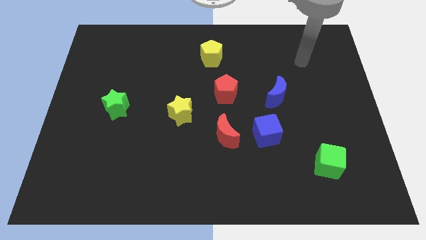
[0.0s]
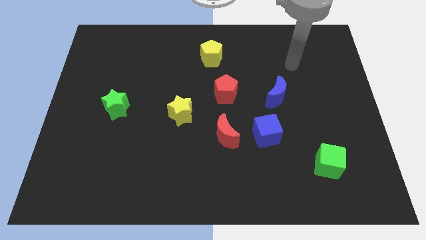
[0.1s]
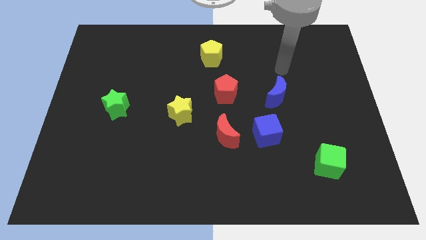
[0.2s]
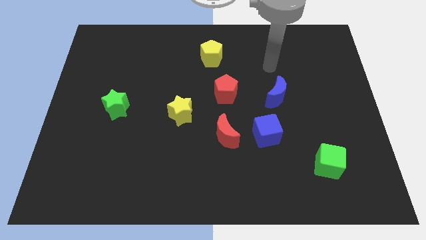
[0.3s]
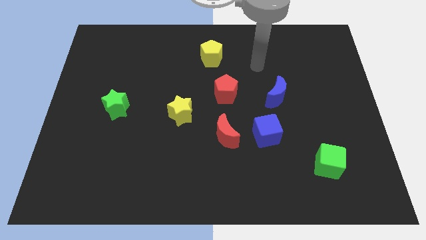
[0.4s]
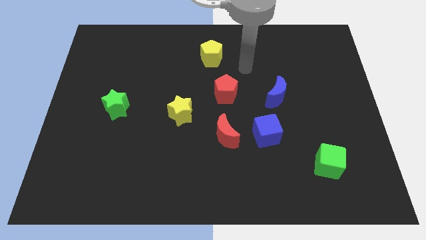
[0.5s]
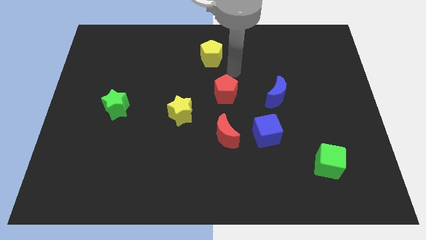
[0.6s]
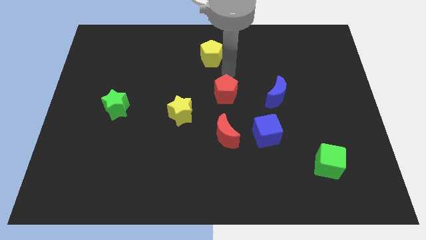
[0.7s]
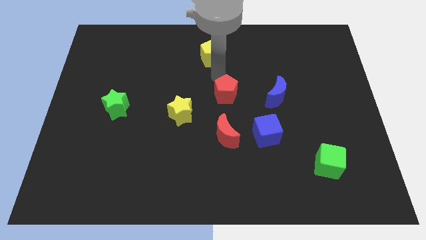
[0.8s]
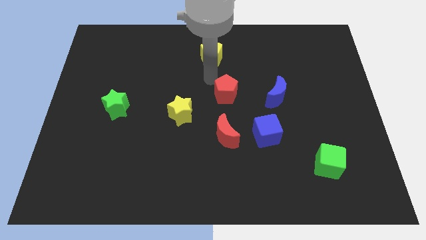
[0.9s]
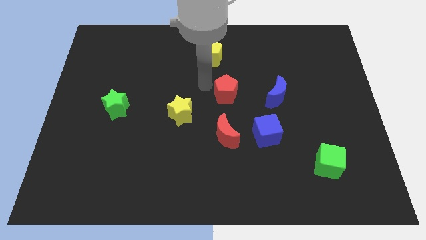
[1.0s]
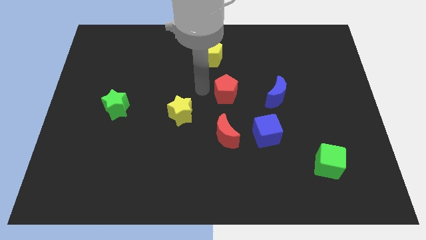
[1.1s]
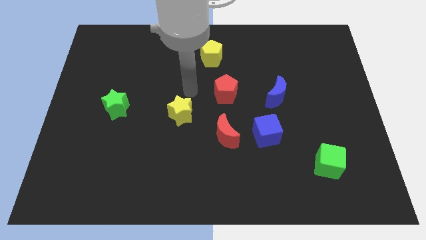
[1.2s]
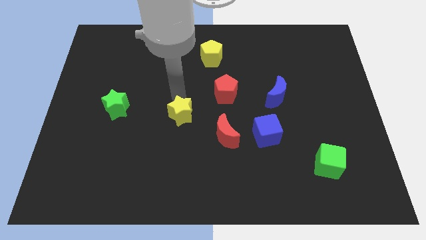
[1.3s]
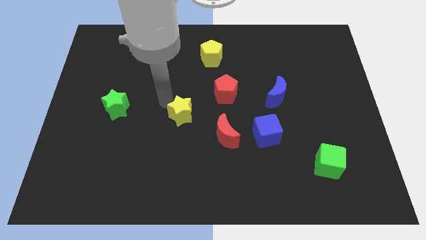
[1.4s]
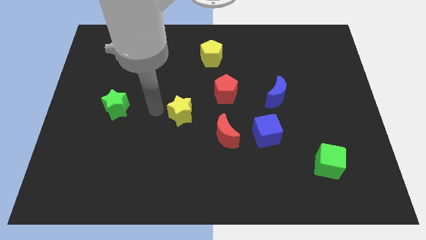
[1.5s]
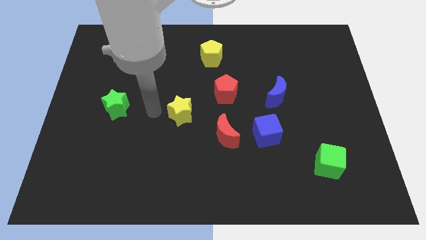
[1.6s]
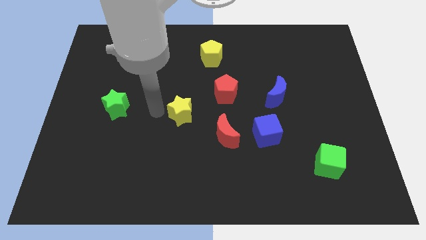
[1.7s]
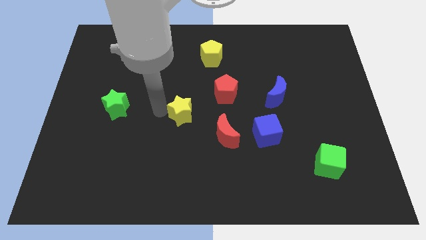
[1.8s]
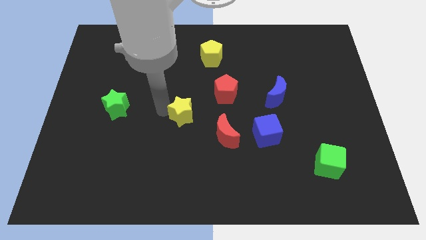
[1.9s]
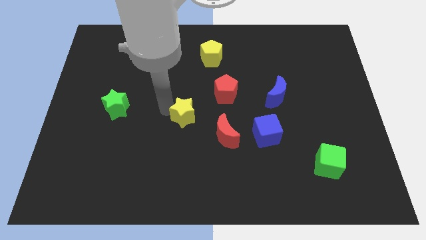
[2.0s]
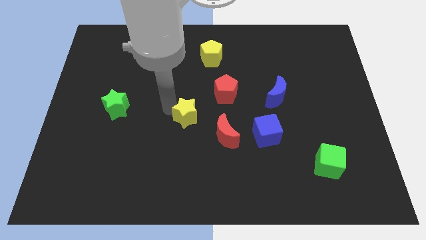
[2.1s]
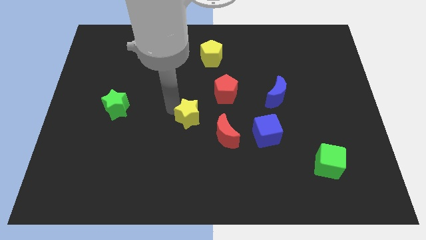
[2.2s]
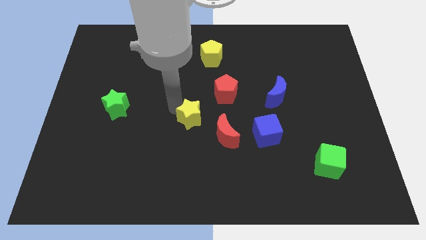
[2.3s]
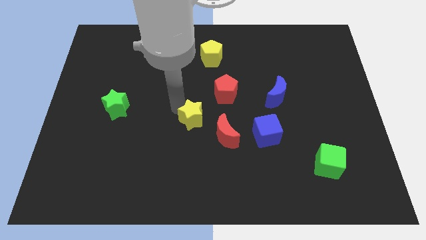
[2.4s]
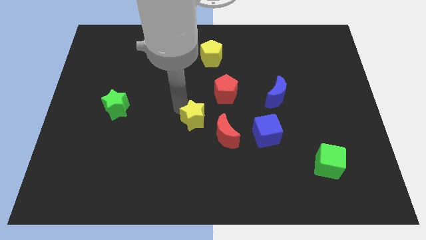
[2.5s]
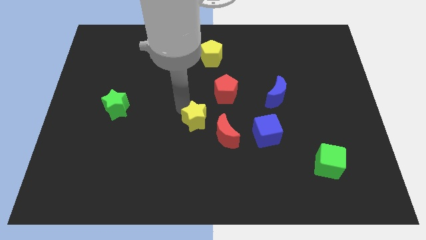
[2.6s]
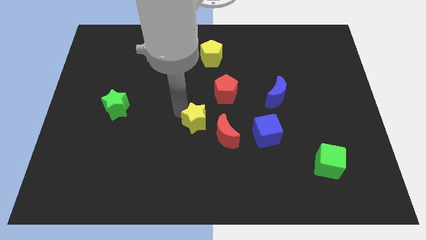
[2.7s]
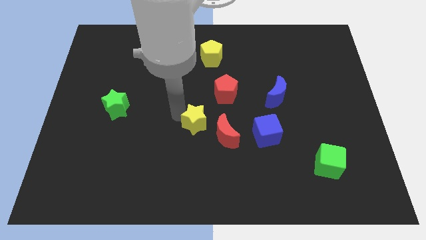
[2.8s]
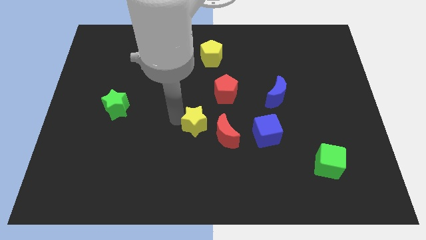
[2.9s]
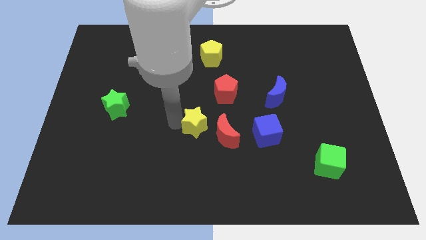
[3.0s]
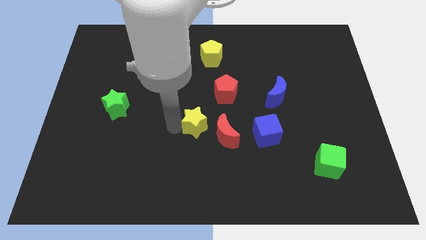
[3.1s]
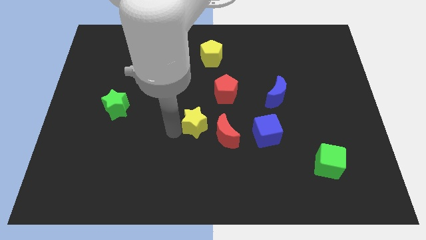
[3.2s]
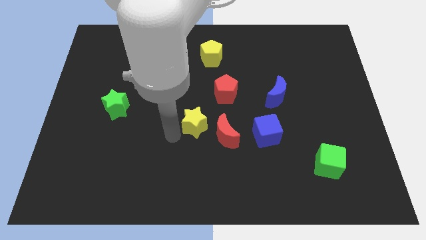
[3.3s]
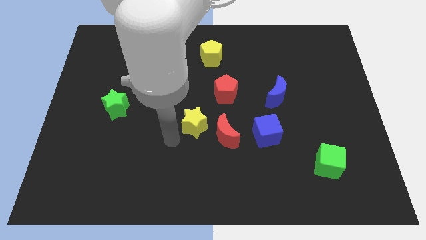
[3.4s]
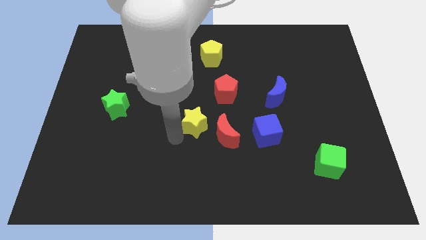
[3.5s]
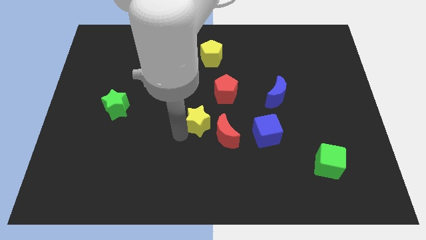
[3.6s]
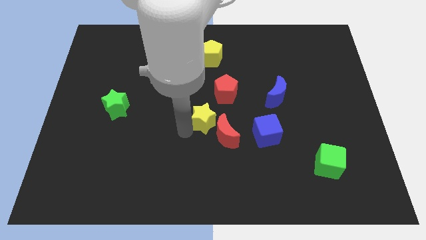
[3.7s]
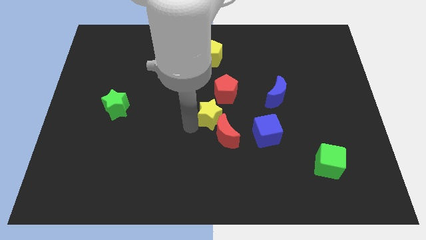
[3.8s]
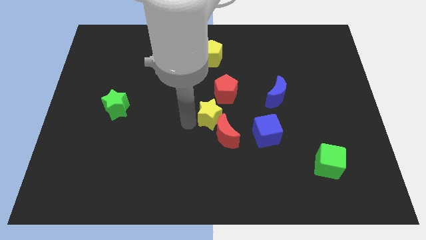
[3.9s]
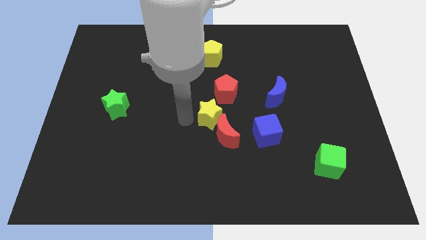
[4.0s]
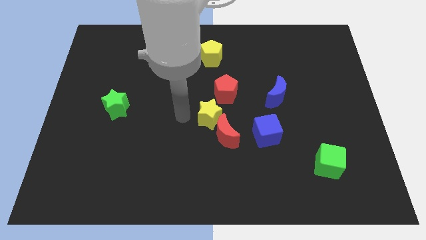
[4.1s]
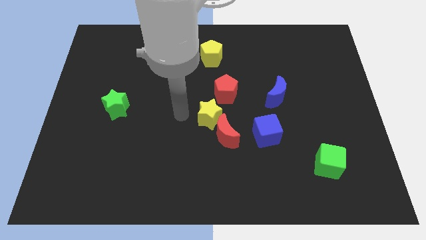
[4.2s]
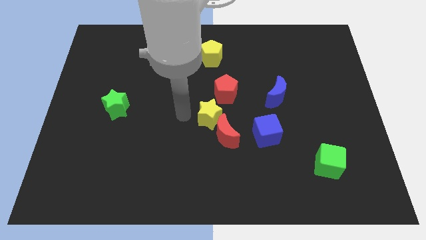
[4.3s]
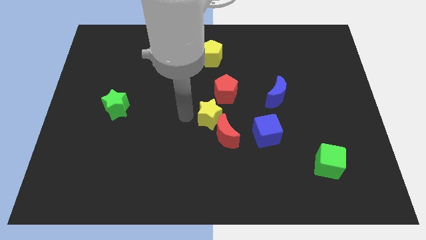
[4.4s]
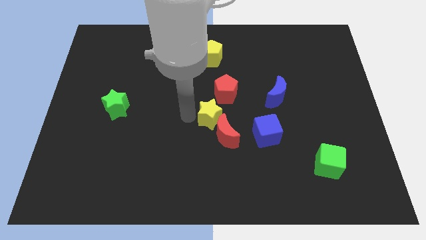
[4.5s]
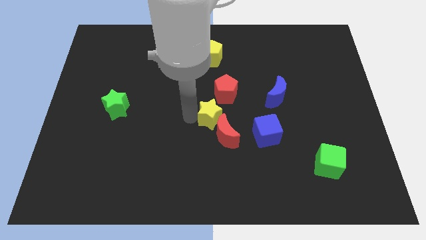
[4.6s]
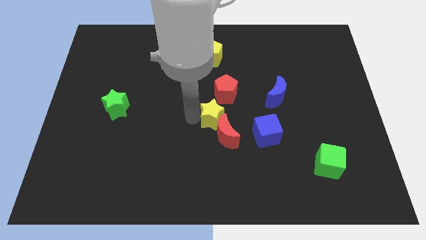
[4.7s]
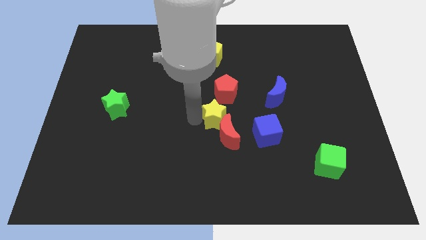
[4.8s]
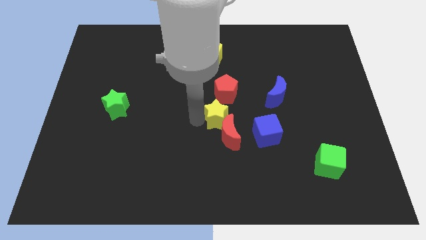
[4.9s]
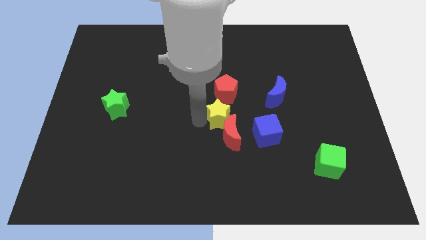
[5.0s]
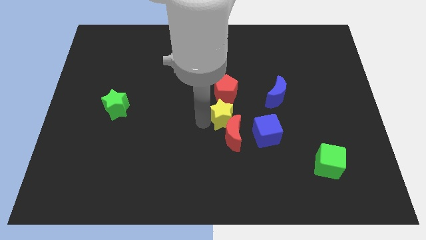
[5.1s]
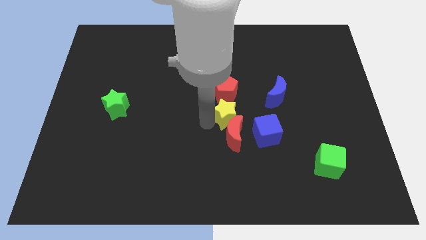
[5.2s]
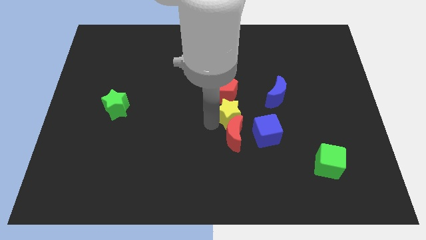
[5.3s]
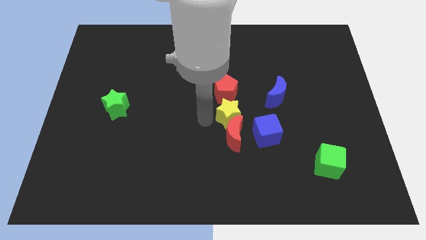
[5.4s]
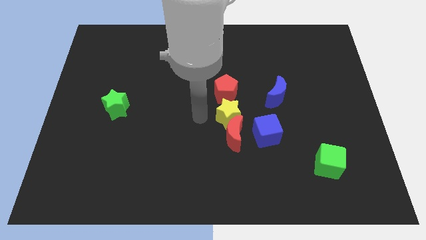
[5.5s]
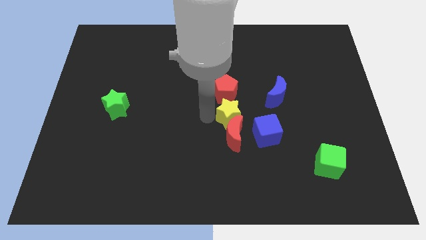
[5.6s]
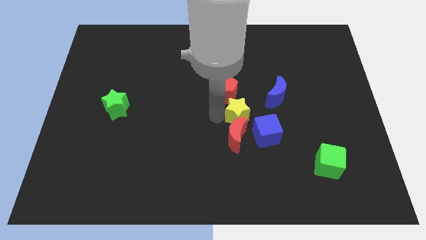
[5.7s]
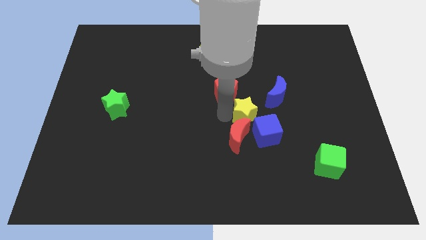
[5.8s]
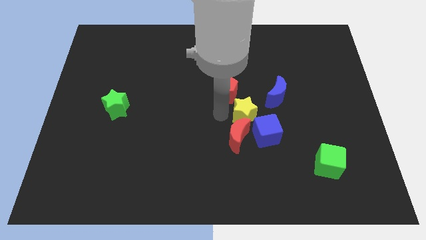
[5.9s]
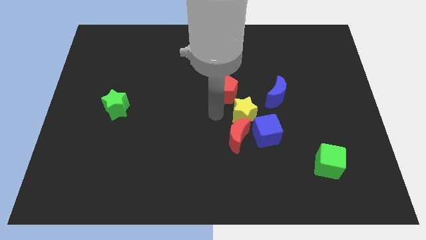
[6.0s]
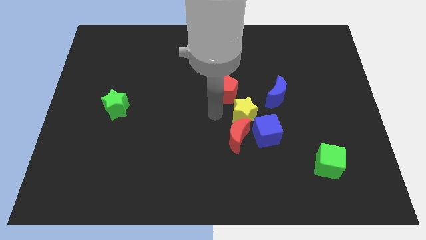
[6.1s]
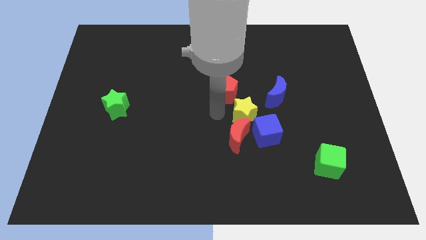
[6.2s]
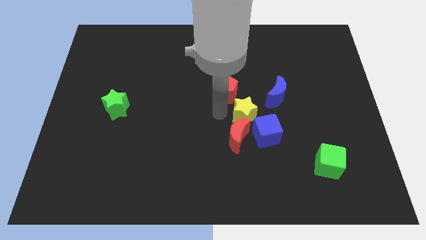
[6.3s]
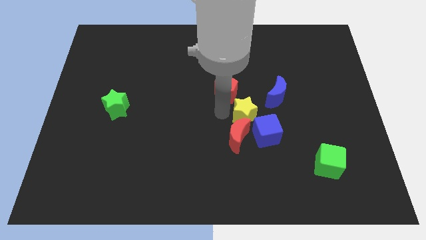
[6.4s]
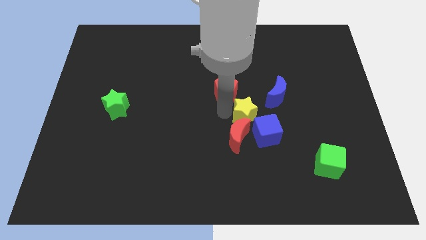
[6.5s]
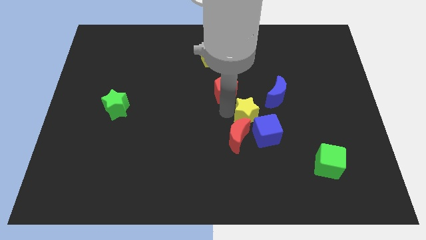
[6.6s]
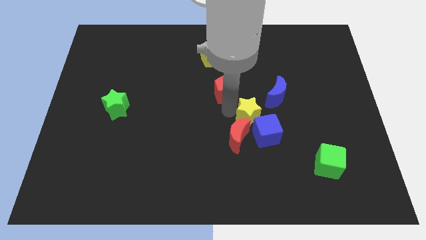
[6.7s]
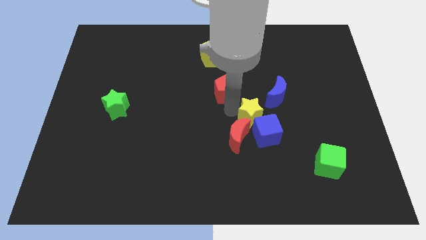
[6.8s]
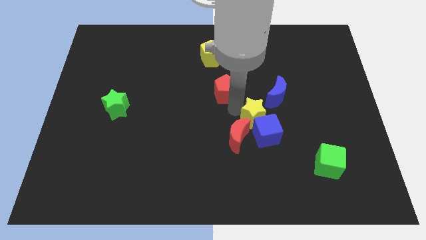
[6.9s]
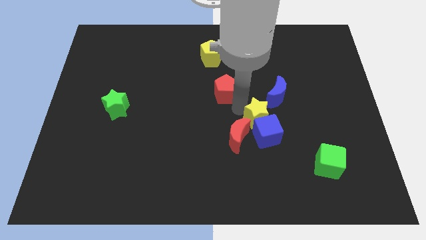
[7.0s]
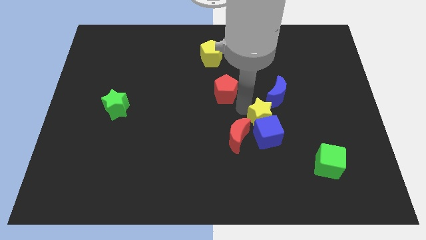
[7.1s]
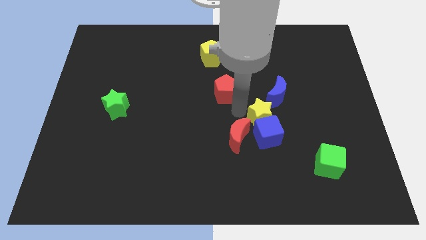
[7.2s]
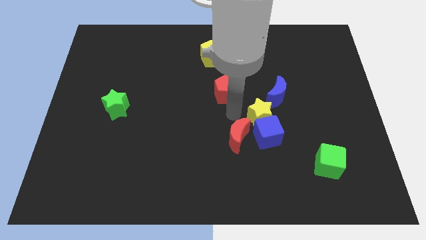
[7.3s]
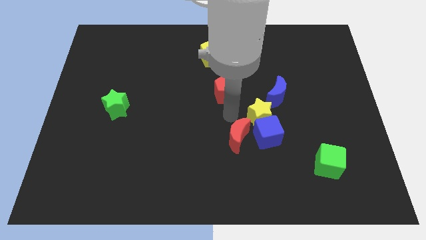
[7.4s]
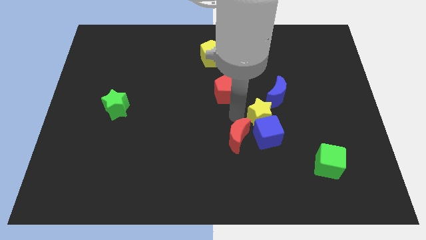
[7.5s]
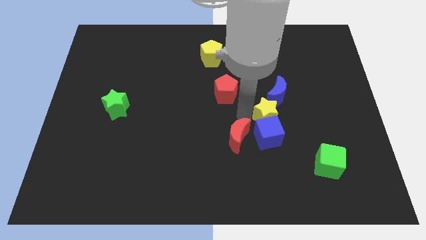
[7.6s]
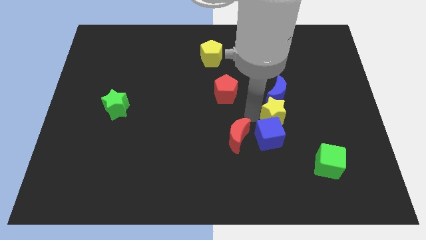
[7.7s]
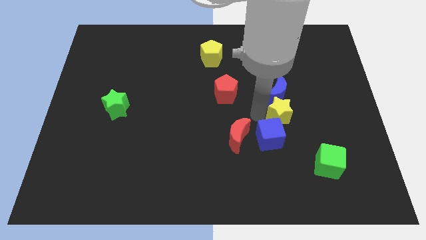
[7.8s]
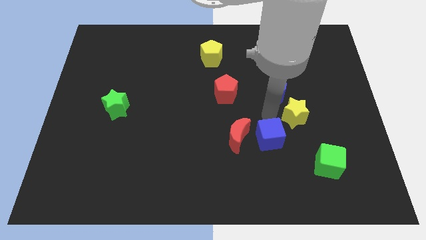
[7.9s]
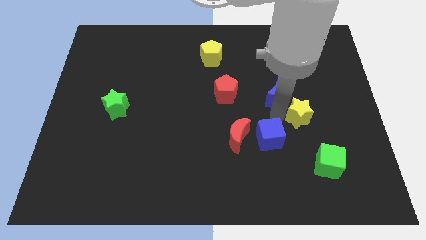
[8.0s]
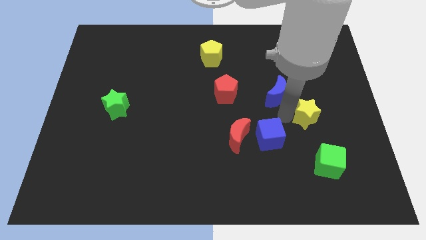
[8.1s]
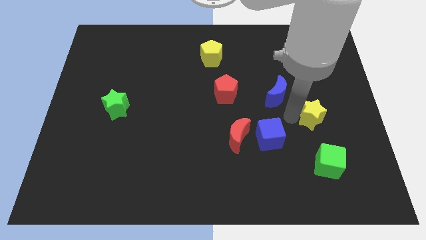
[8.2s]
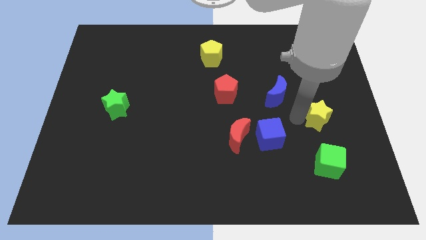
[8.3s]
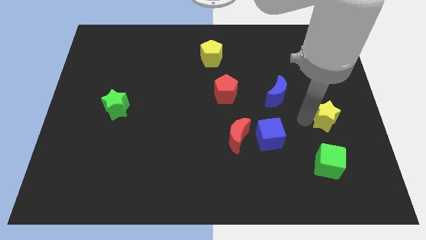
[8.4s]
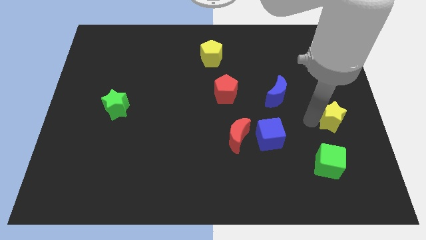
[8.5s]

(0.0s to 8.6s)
move the yellow star to the right side of the board
